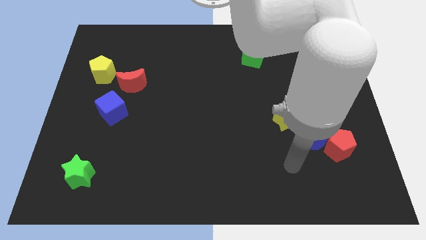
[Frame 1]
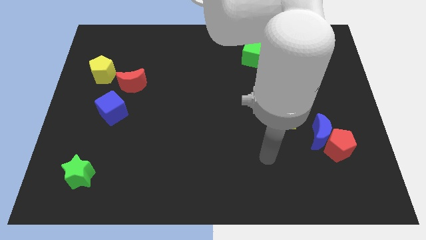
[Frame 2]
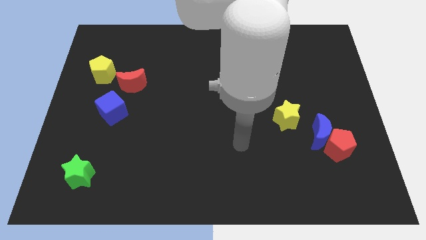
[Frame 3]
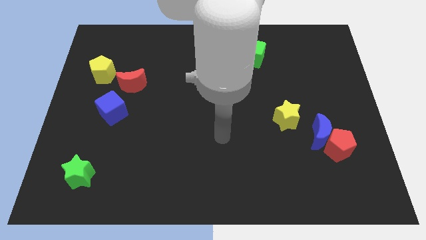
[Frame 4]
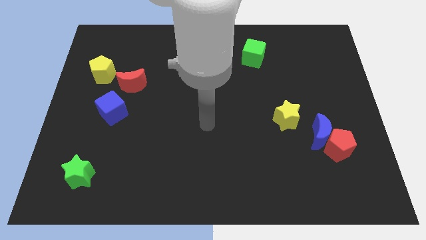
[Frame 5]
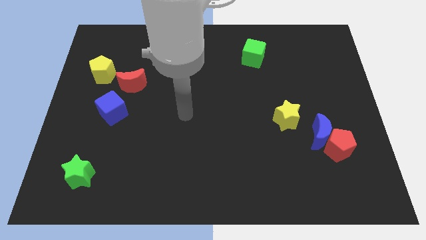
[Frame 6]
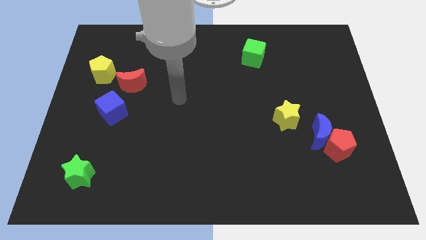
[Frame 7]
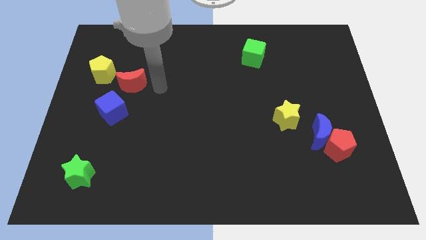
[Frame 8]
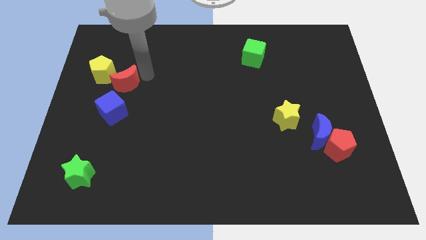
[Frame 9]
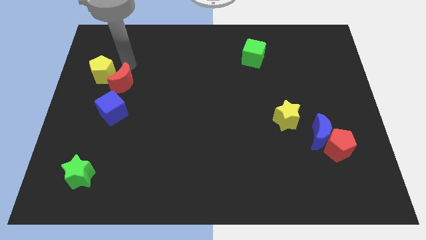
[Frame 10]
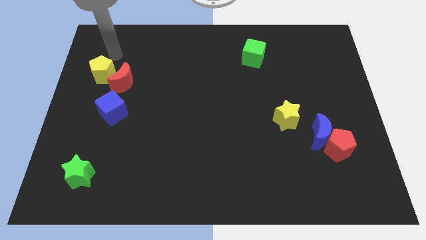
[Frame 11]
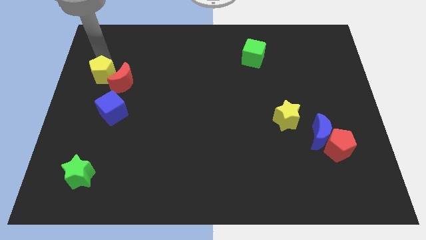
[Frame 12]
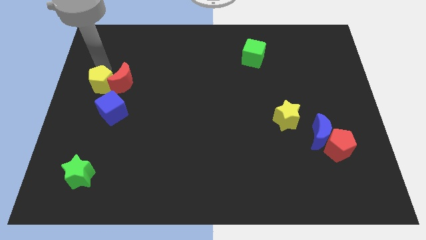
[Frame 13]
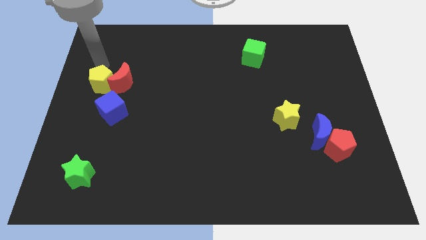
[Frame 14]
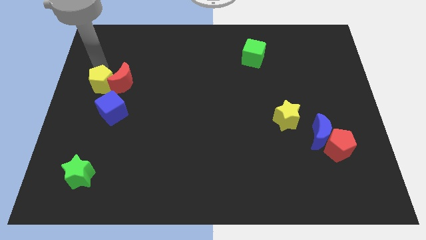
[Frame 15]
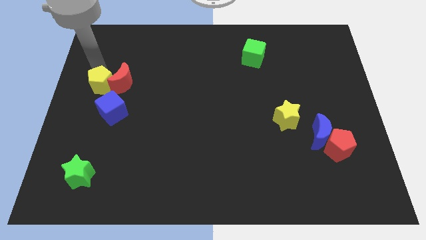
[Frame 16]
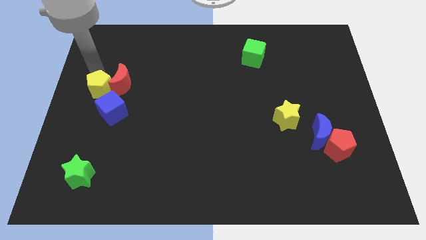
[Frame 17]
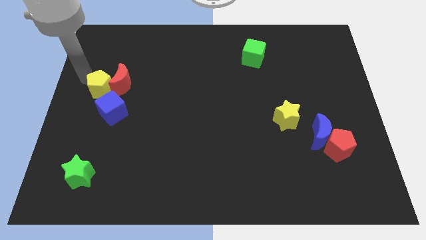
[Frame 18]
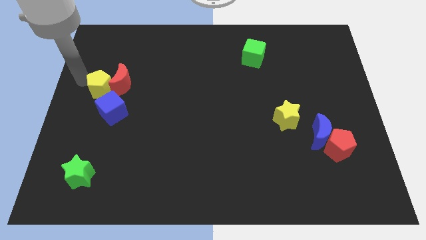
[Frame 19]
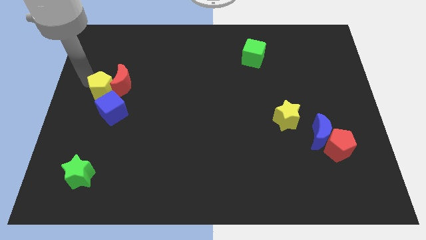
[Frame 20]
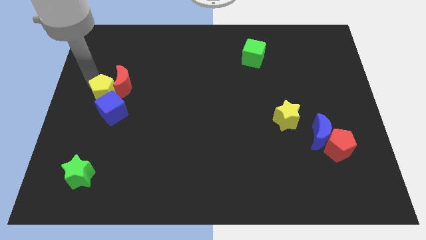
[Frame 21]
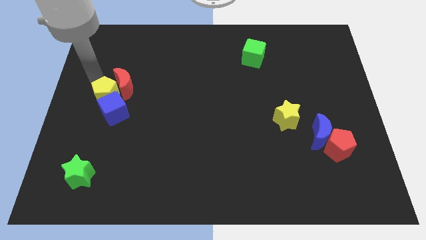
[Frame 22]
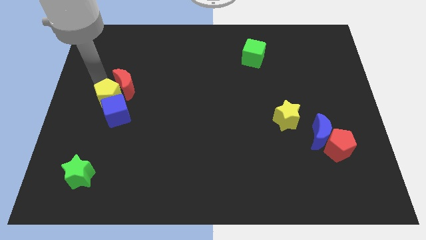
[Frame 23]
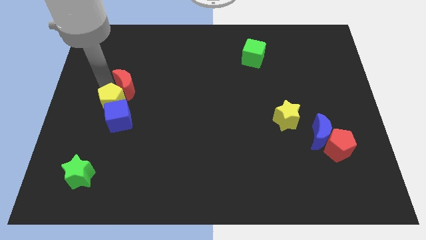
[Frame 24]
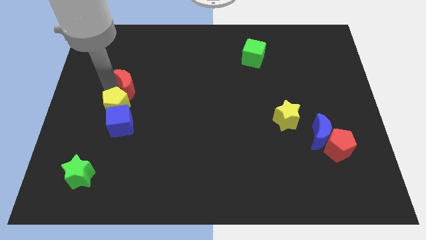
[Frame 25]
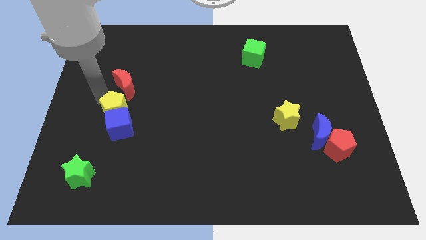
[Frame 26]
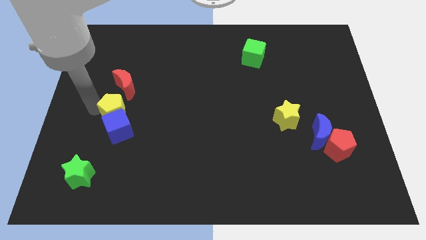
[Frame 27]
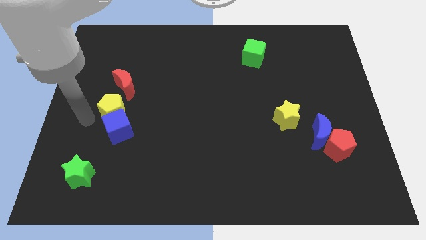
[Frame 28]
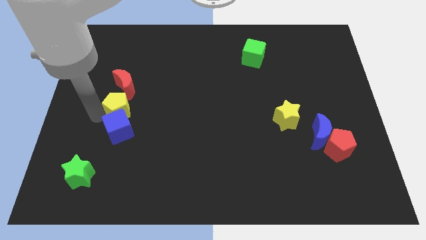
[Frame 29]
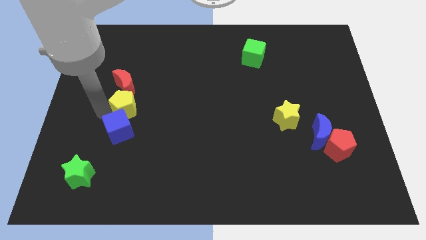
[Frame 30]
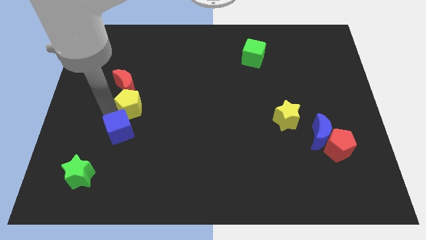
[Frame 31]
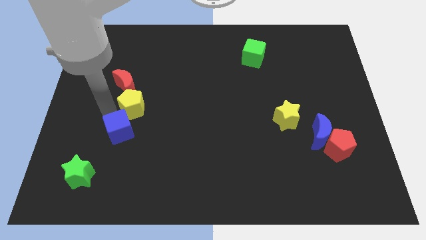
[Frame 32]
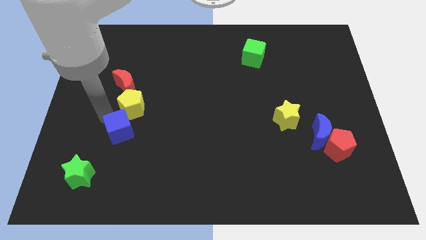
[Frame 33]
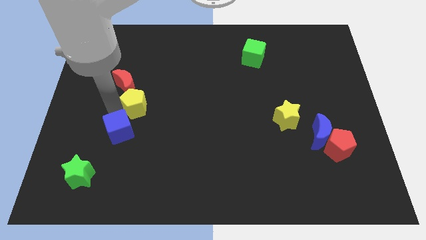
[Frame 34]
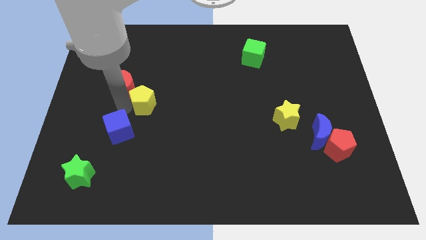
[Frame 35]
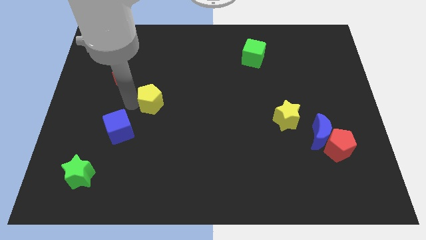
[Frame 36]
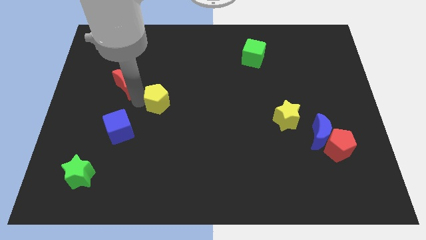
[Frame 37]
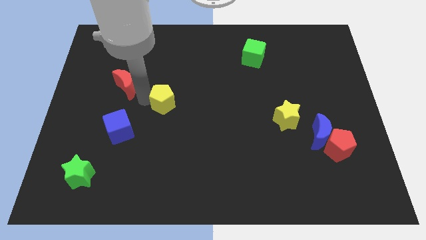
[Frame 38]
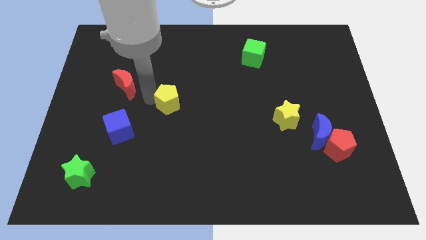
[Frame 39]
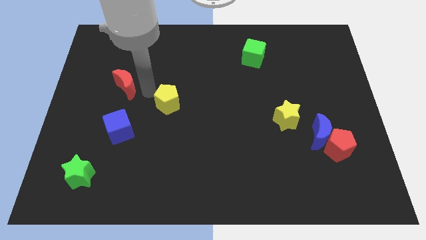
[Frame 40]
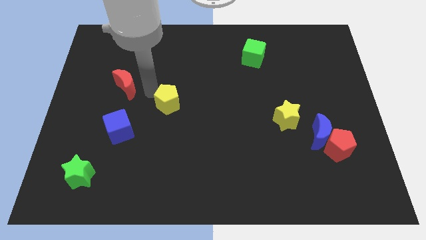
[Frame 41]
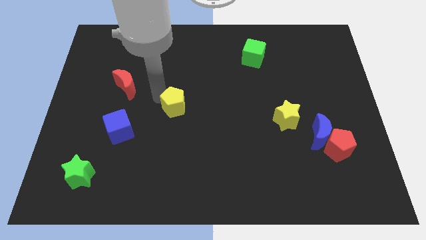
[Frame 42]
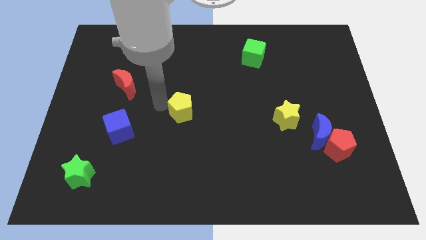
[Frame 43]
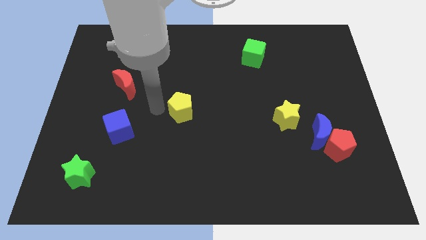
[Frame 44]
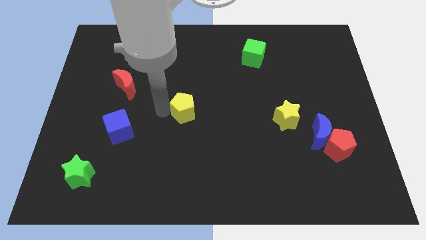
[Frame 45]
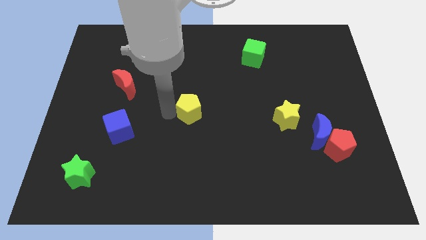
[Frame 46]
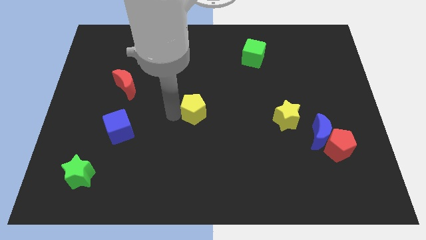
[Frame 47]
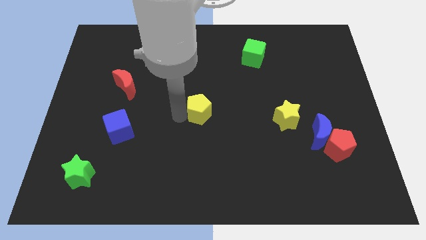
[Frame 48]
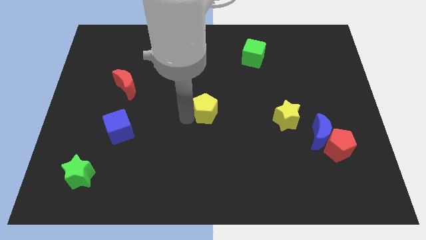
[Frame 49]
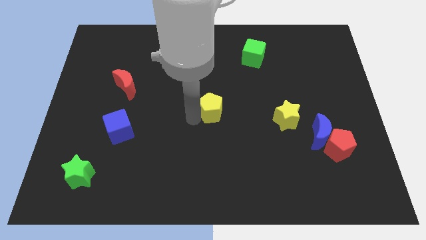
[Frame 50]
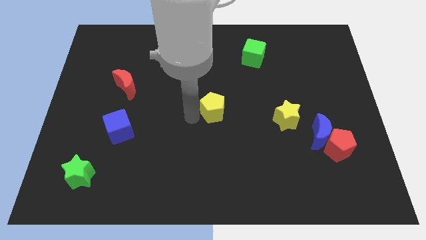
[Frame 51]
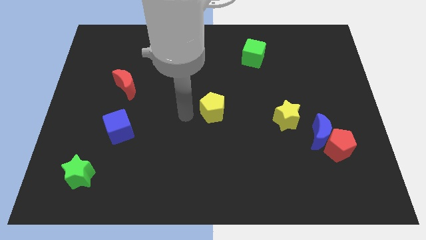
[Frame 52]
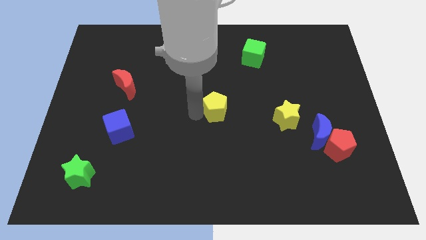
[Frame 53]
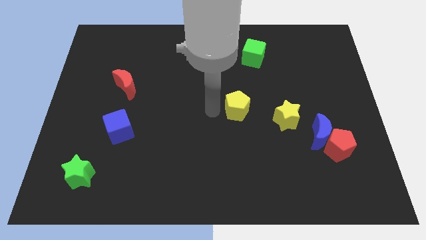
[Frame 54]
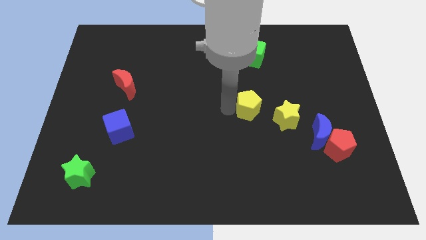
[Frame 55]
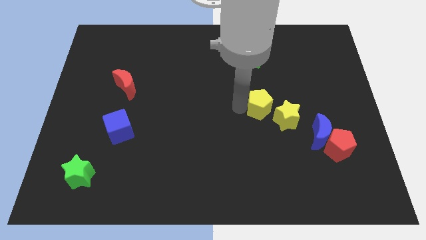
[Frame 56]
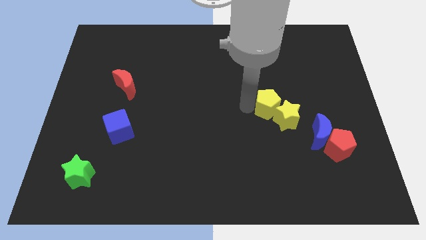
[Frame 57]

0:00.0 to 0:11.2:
put the yellow pentagon towards the yellow star

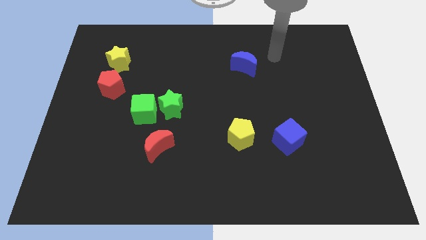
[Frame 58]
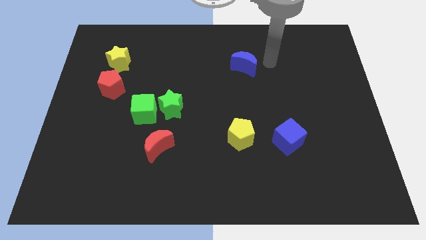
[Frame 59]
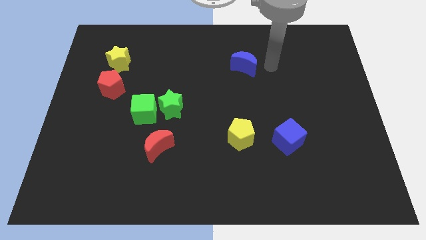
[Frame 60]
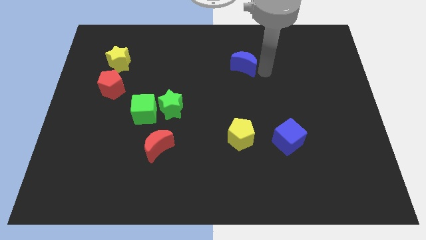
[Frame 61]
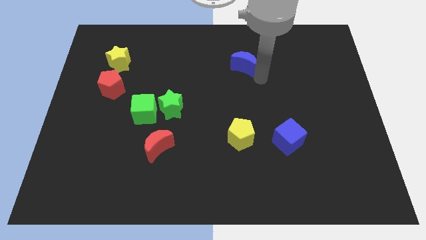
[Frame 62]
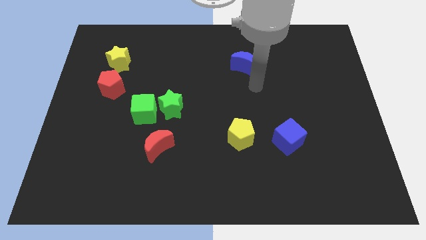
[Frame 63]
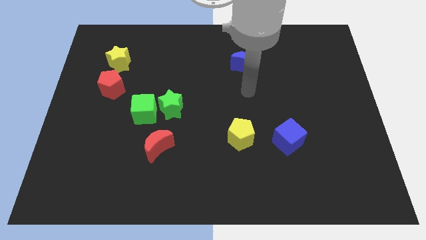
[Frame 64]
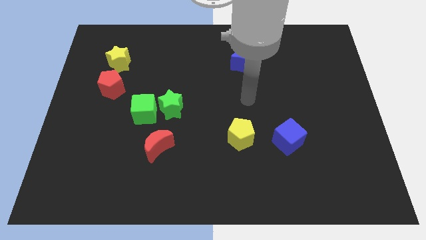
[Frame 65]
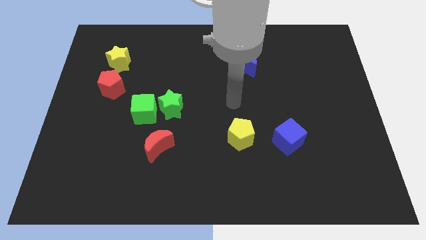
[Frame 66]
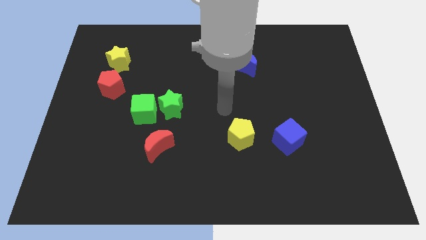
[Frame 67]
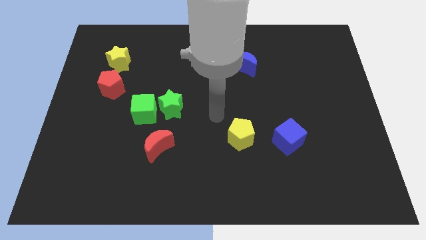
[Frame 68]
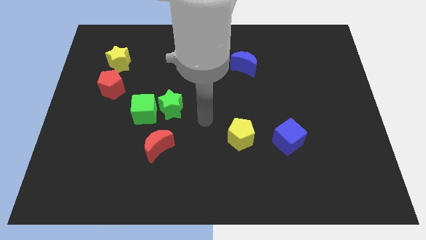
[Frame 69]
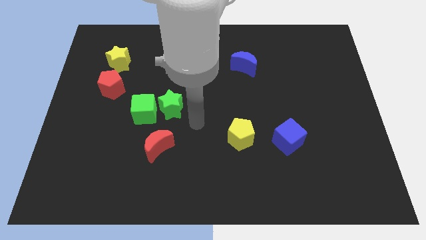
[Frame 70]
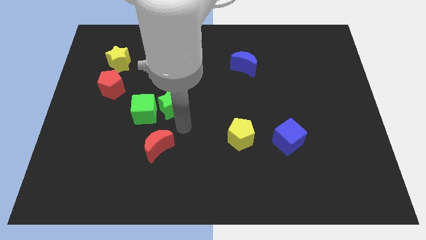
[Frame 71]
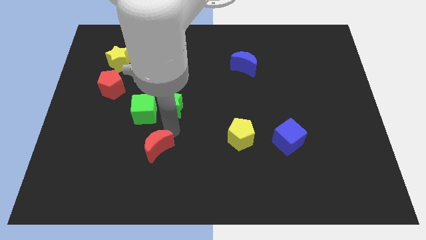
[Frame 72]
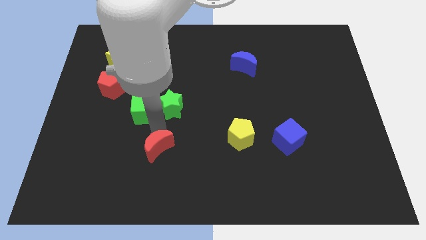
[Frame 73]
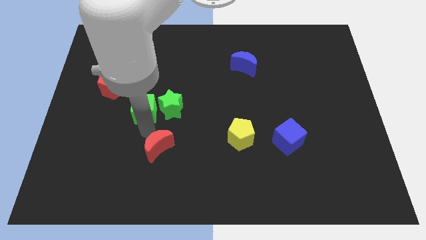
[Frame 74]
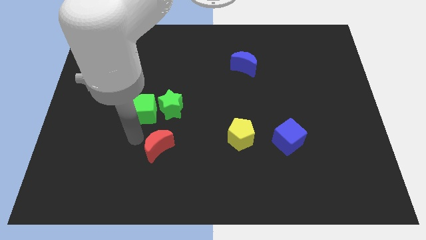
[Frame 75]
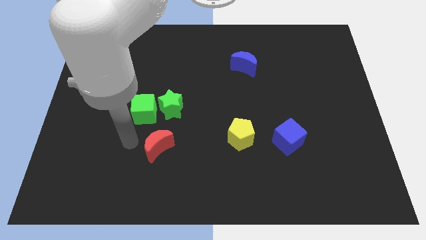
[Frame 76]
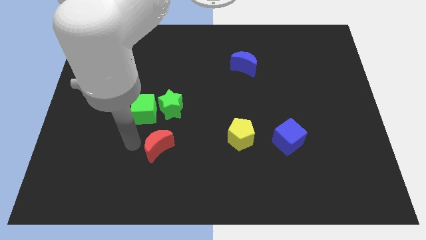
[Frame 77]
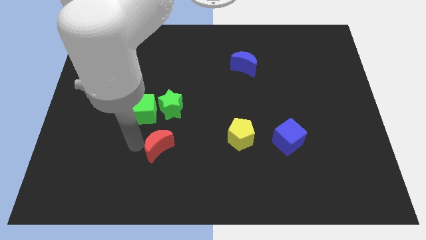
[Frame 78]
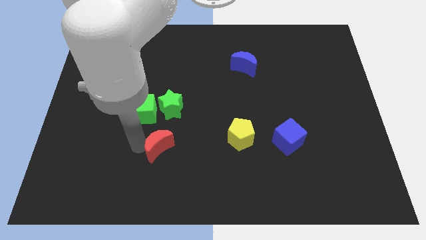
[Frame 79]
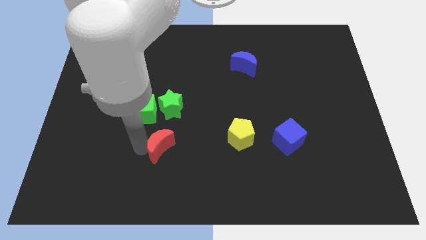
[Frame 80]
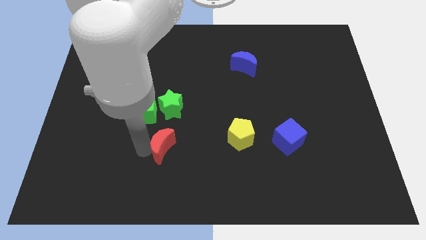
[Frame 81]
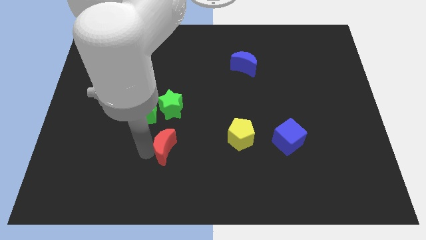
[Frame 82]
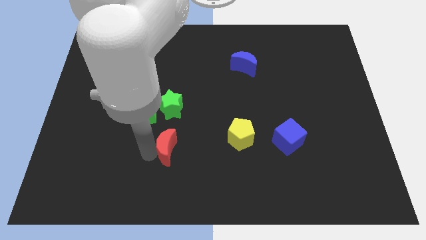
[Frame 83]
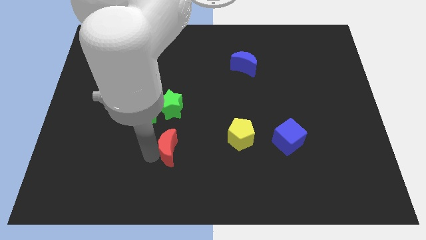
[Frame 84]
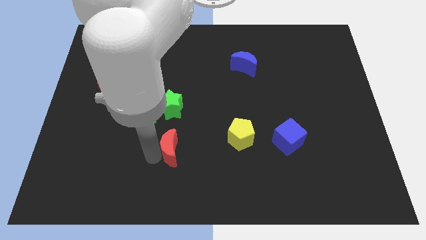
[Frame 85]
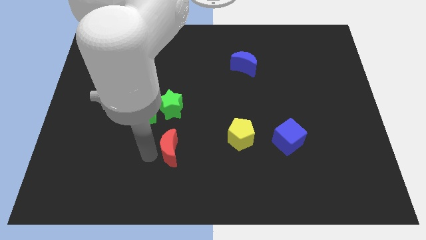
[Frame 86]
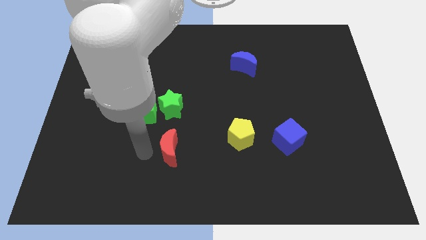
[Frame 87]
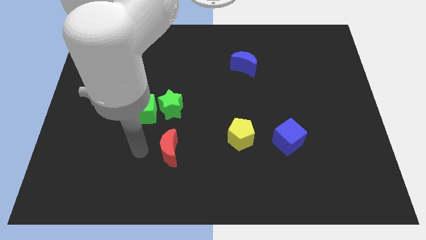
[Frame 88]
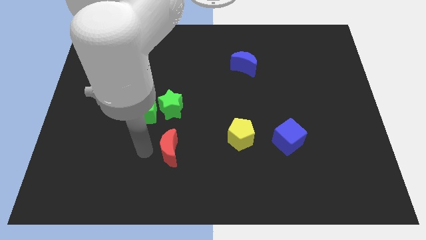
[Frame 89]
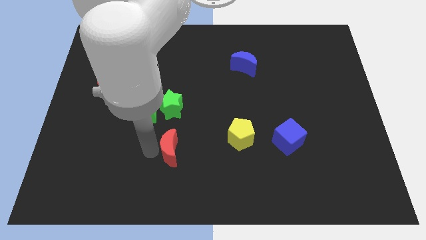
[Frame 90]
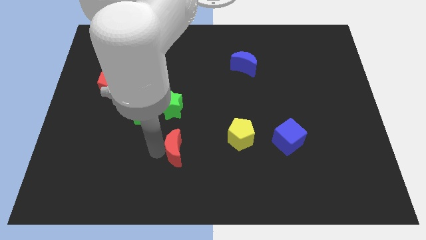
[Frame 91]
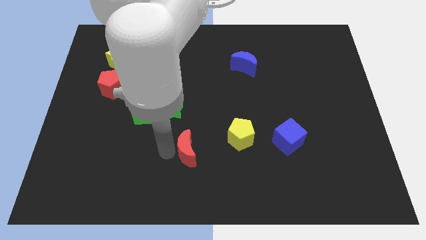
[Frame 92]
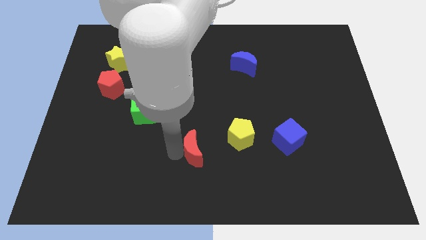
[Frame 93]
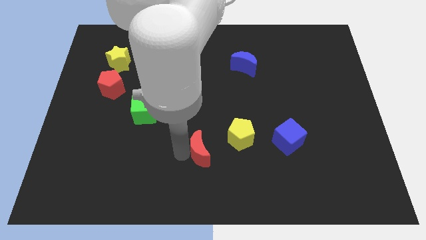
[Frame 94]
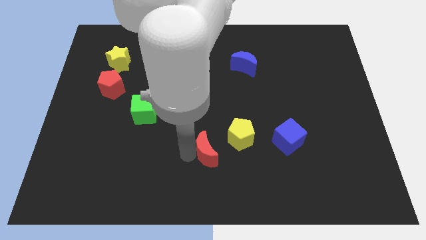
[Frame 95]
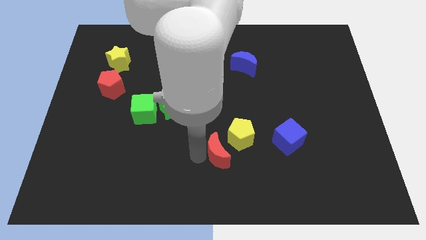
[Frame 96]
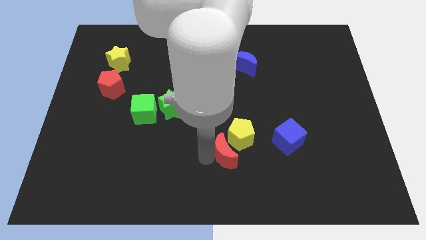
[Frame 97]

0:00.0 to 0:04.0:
move the red moon towards the yellow pentagon
